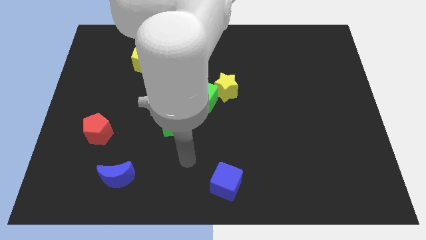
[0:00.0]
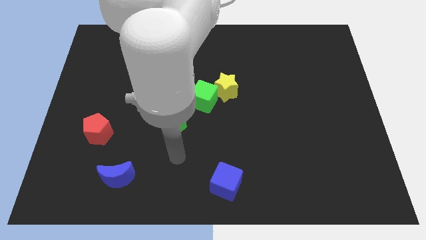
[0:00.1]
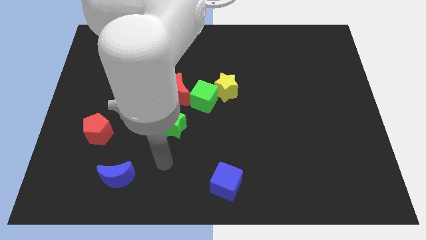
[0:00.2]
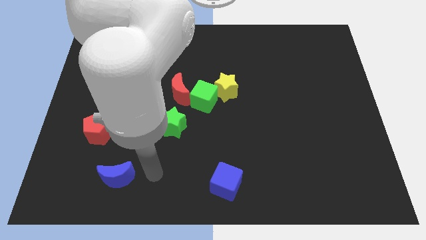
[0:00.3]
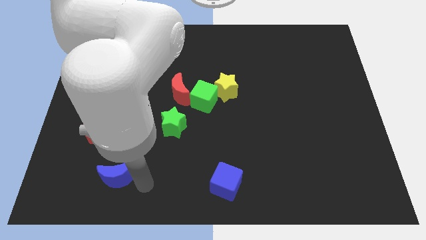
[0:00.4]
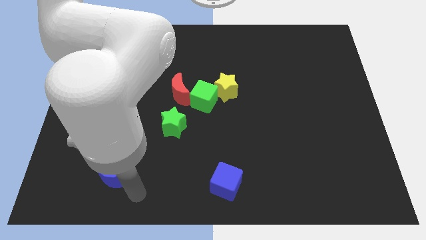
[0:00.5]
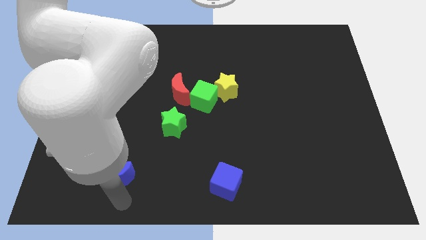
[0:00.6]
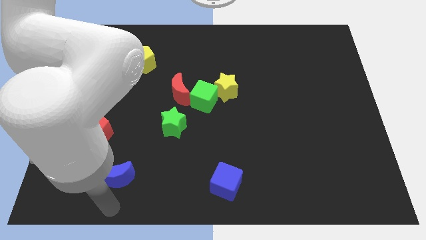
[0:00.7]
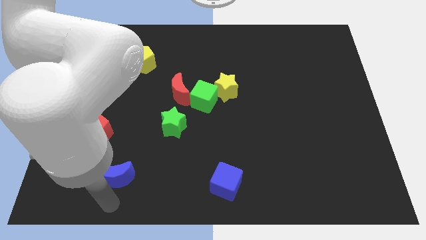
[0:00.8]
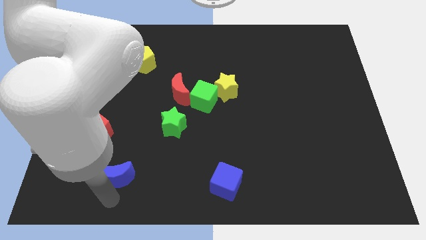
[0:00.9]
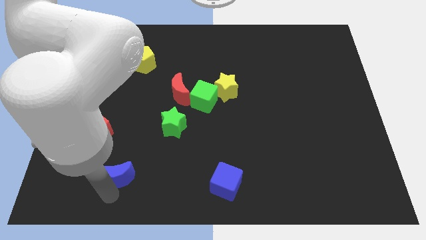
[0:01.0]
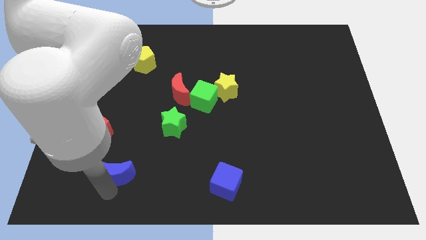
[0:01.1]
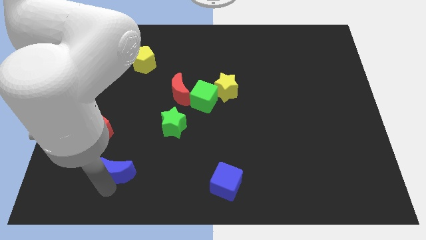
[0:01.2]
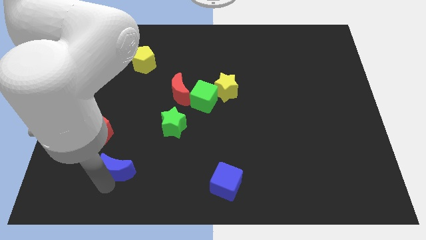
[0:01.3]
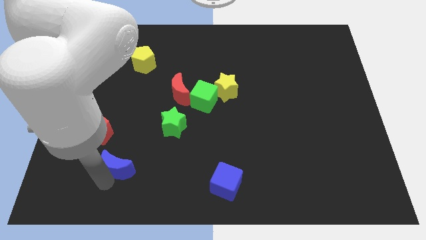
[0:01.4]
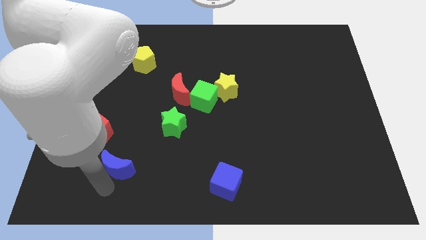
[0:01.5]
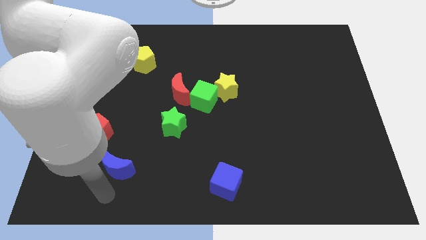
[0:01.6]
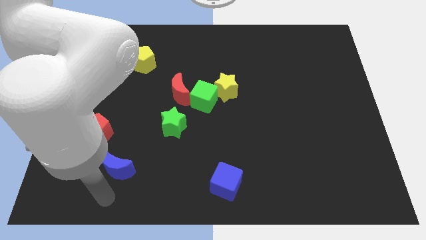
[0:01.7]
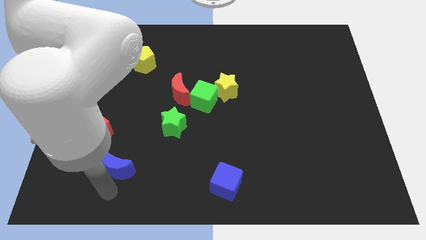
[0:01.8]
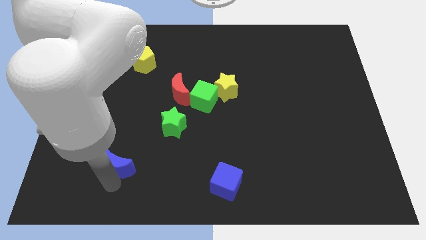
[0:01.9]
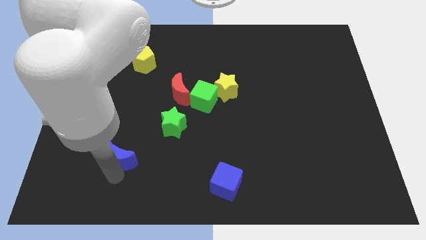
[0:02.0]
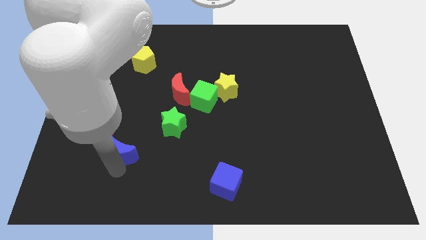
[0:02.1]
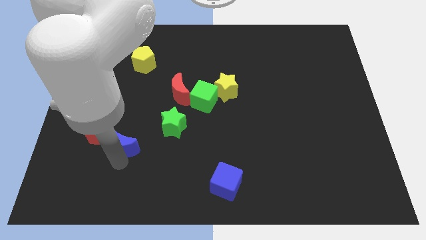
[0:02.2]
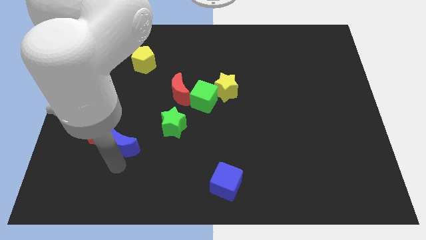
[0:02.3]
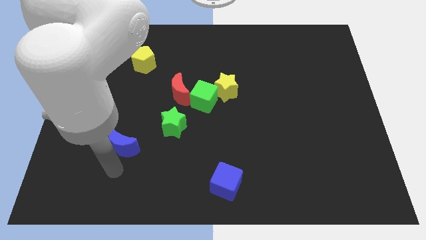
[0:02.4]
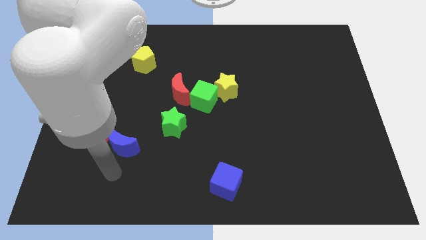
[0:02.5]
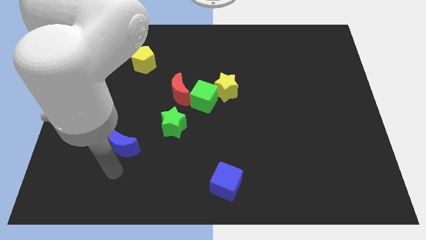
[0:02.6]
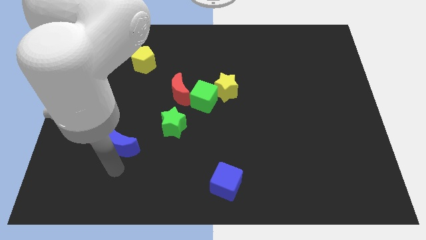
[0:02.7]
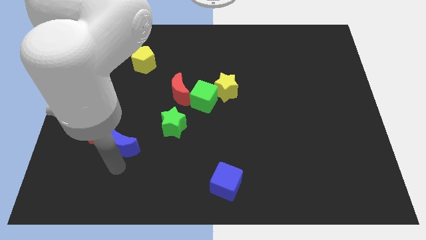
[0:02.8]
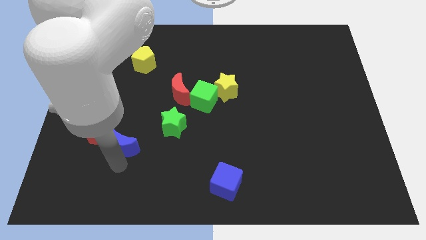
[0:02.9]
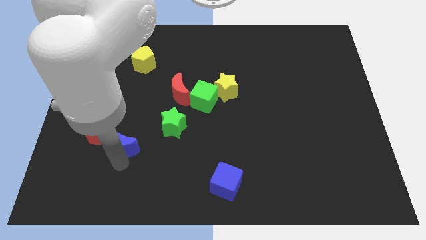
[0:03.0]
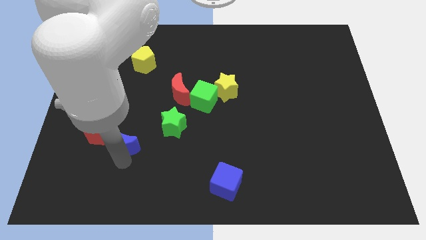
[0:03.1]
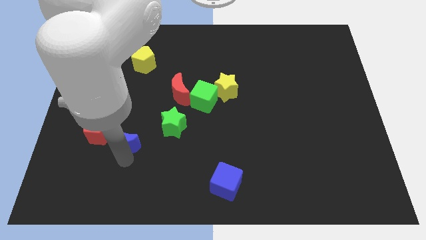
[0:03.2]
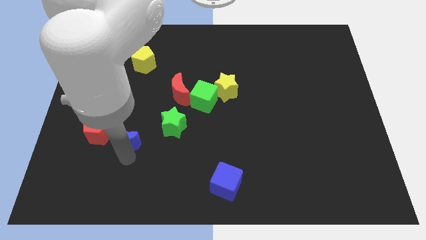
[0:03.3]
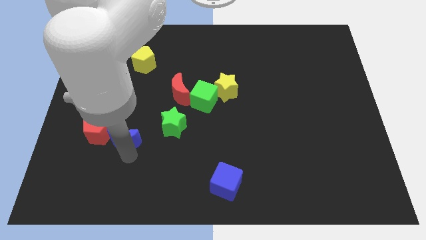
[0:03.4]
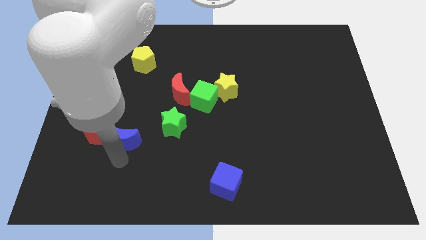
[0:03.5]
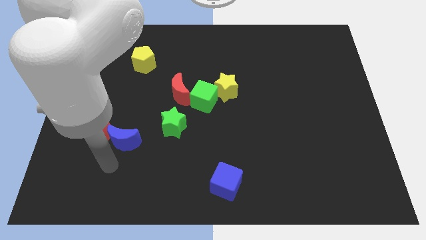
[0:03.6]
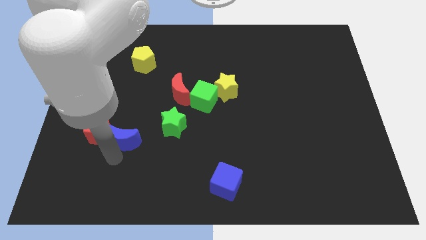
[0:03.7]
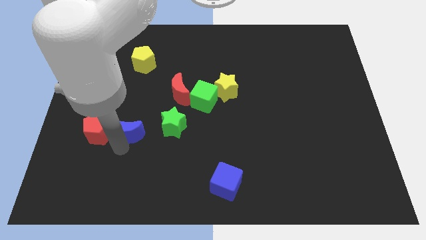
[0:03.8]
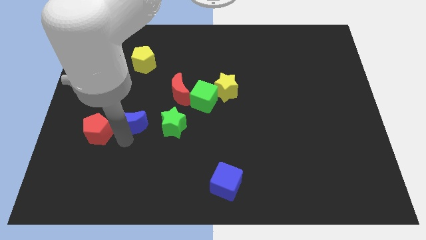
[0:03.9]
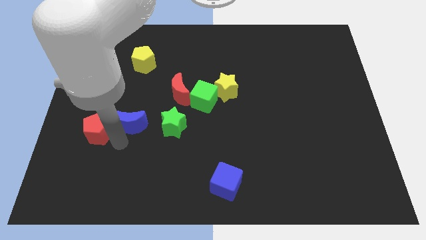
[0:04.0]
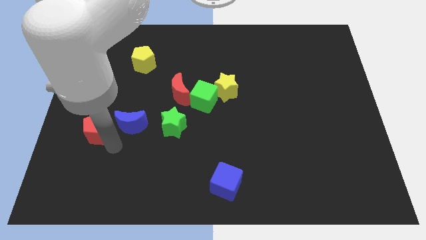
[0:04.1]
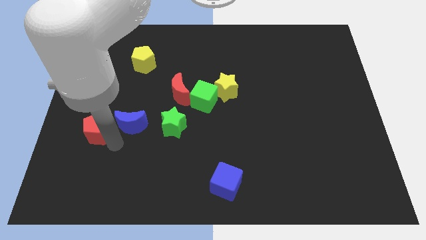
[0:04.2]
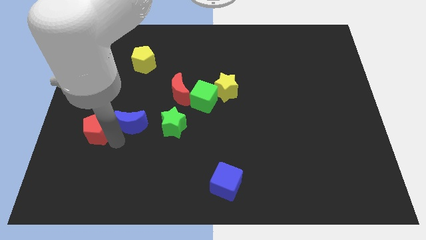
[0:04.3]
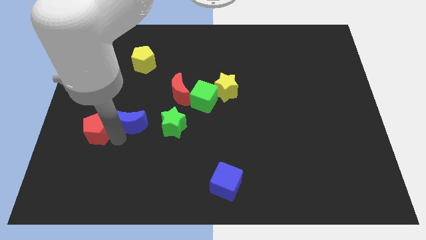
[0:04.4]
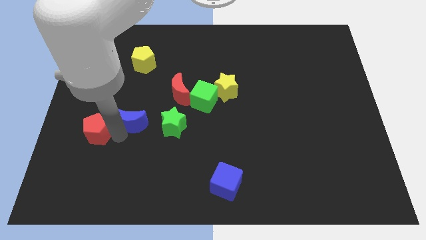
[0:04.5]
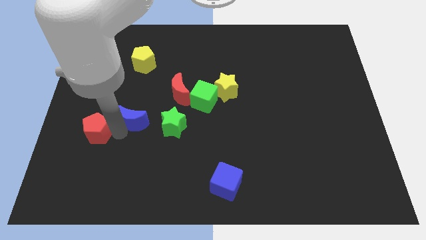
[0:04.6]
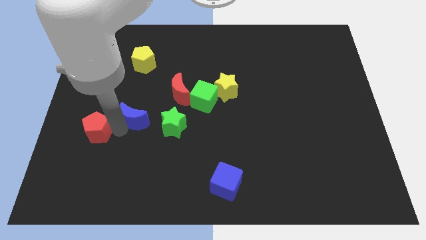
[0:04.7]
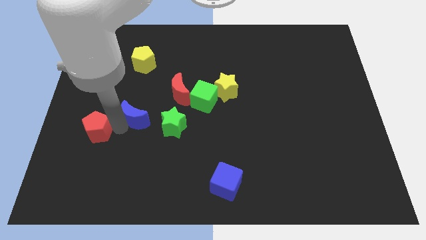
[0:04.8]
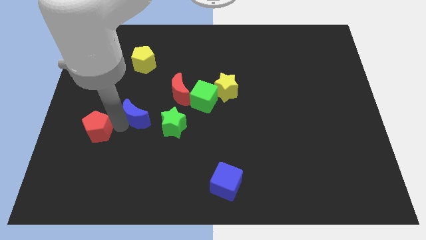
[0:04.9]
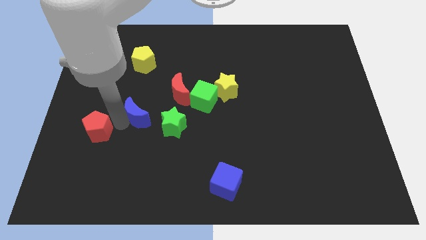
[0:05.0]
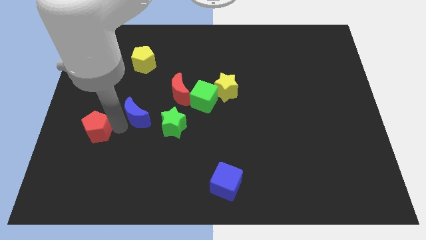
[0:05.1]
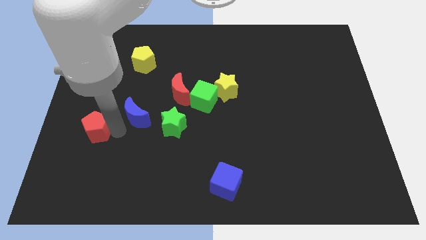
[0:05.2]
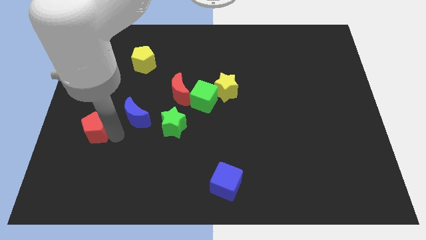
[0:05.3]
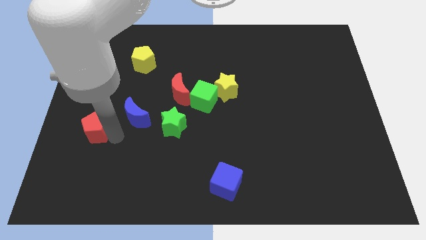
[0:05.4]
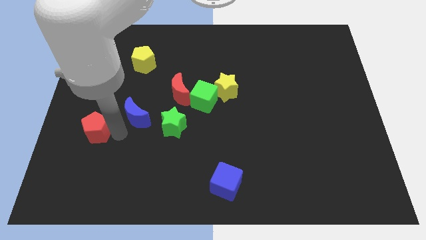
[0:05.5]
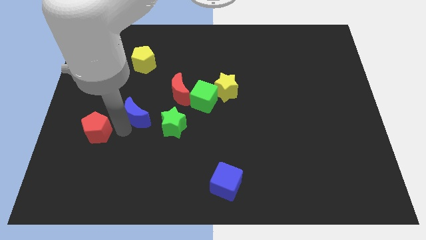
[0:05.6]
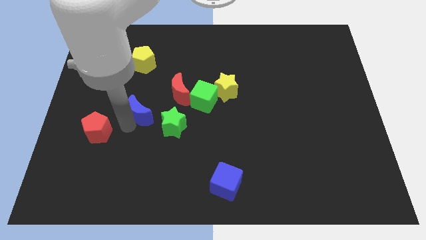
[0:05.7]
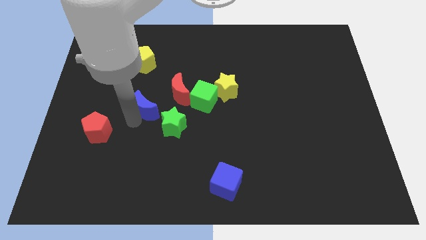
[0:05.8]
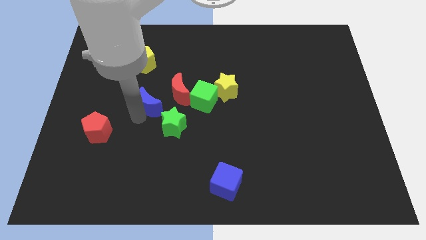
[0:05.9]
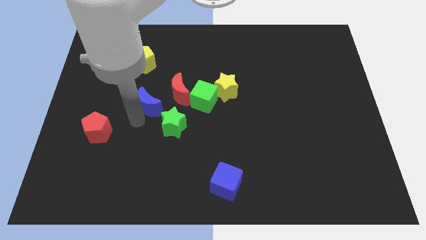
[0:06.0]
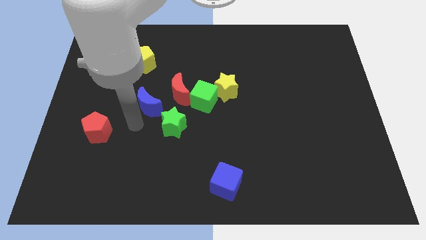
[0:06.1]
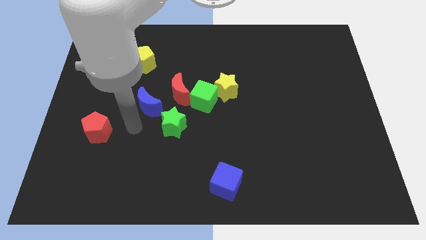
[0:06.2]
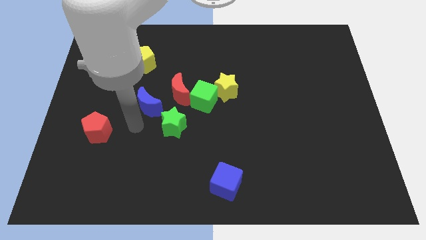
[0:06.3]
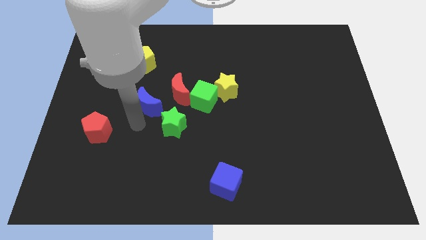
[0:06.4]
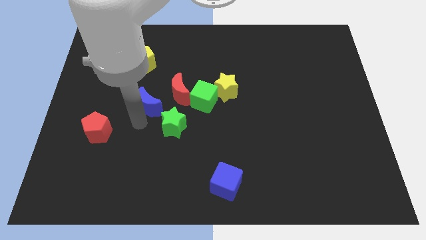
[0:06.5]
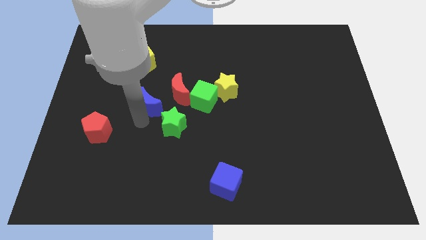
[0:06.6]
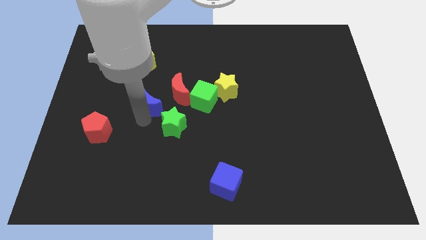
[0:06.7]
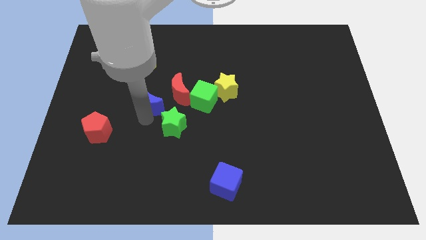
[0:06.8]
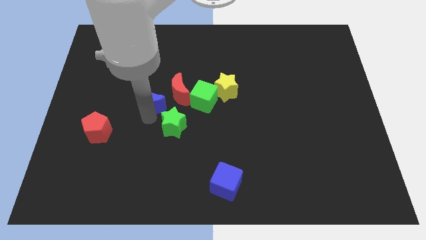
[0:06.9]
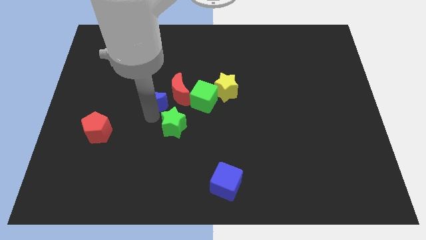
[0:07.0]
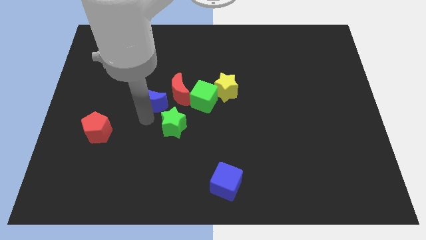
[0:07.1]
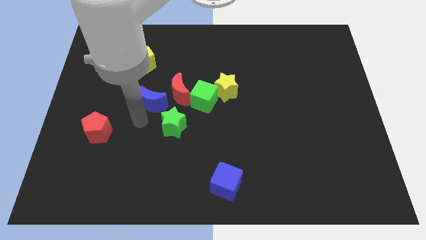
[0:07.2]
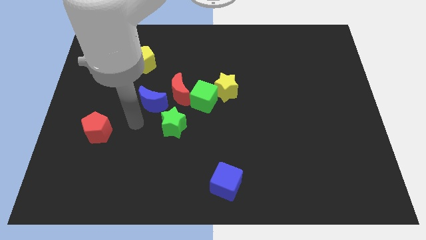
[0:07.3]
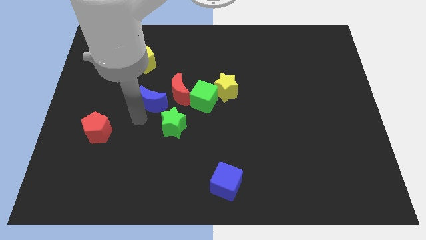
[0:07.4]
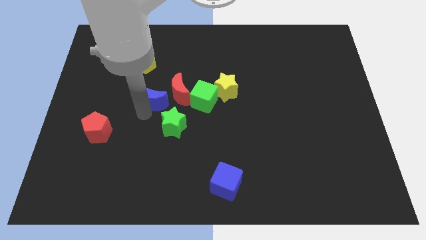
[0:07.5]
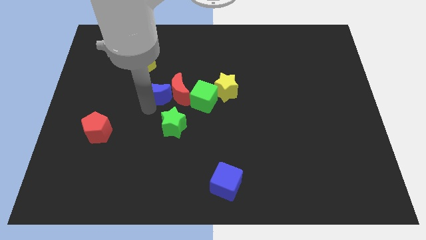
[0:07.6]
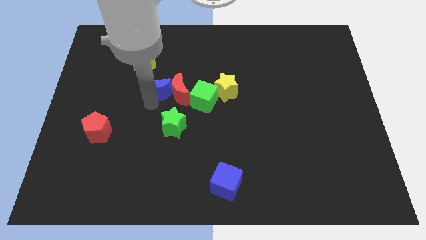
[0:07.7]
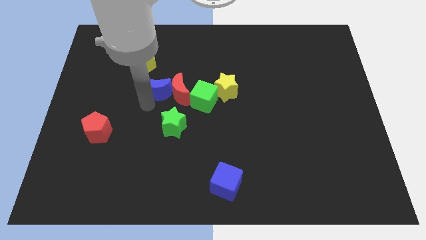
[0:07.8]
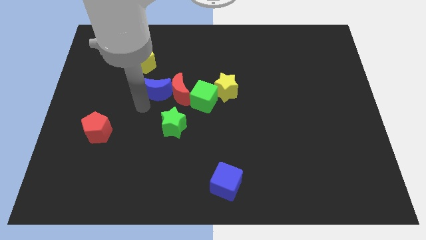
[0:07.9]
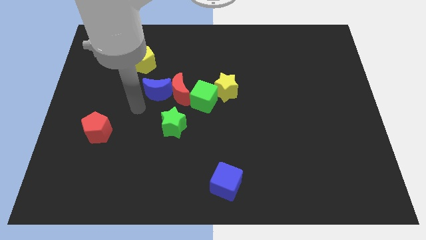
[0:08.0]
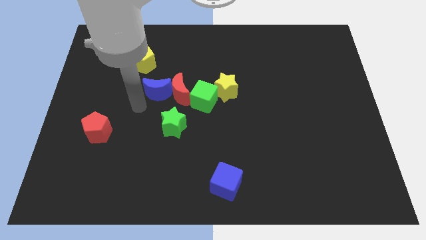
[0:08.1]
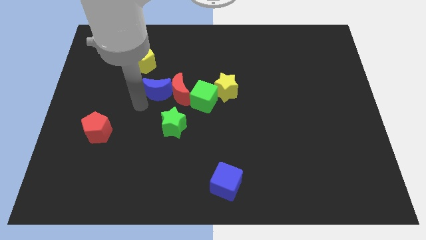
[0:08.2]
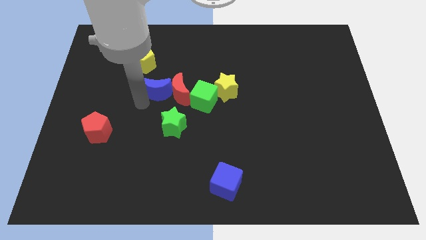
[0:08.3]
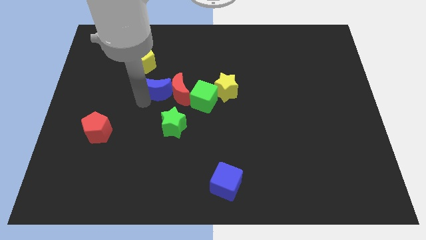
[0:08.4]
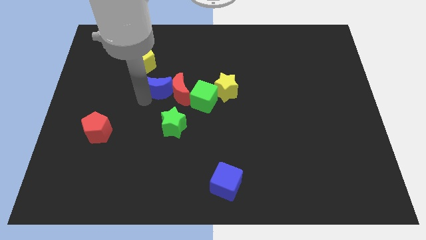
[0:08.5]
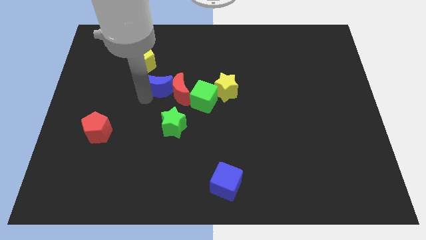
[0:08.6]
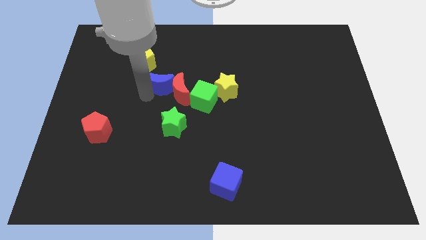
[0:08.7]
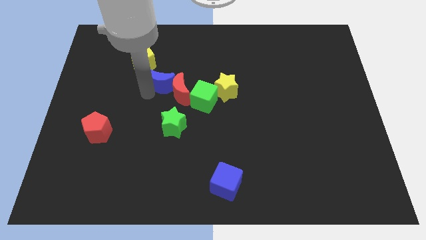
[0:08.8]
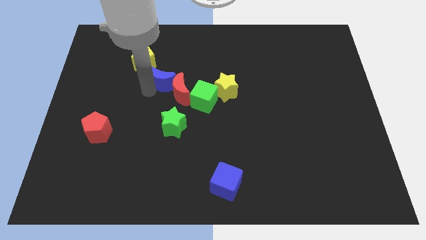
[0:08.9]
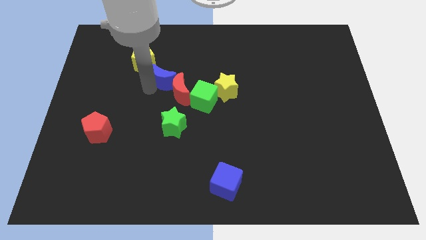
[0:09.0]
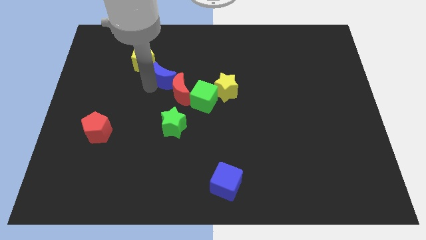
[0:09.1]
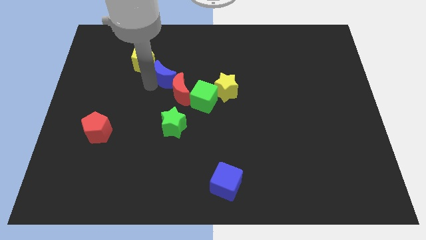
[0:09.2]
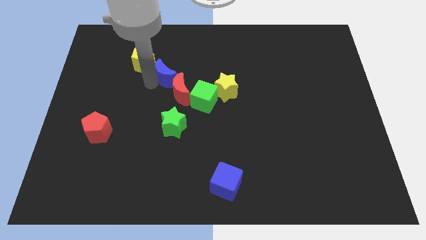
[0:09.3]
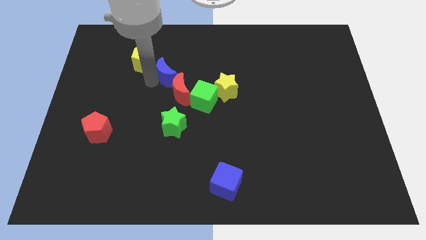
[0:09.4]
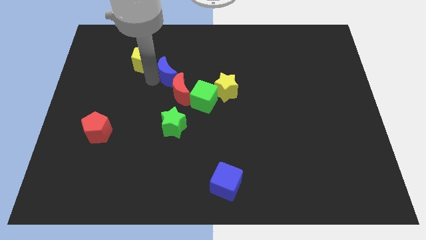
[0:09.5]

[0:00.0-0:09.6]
slide the blue moon to the right side of the yellow pentagon
